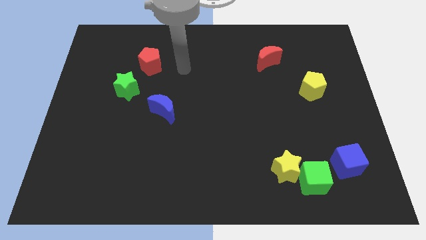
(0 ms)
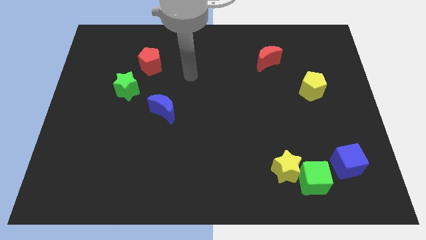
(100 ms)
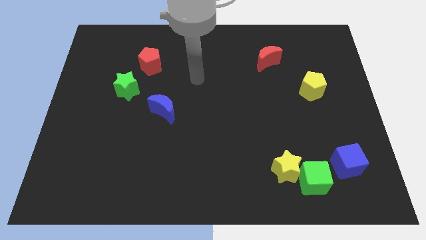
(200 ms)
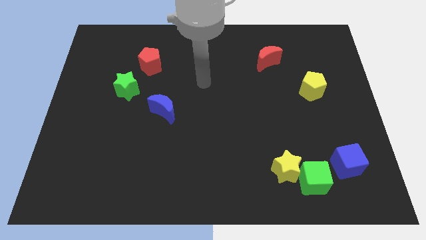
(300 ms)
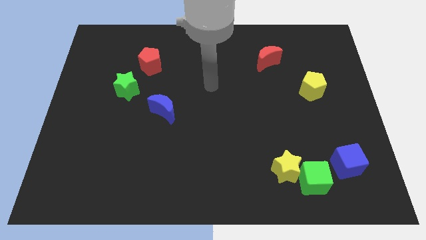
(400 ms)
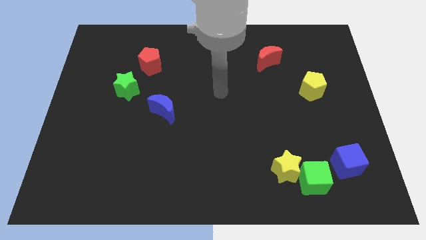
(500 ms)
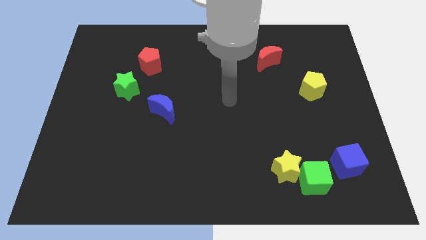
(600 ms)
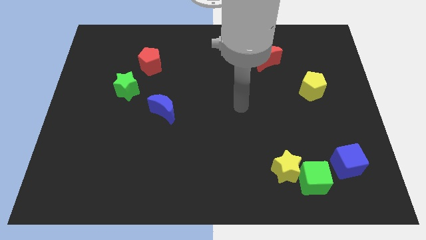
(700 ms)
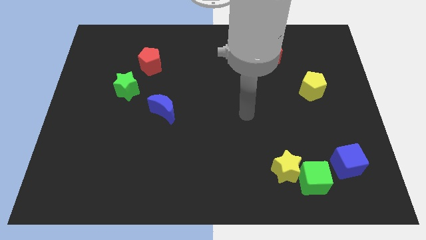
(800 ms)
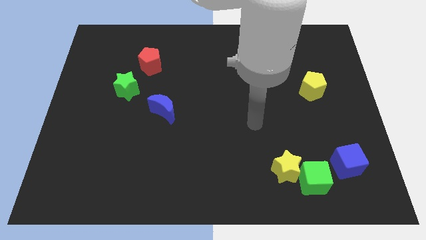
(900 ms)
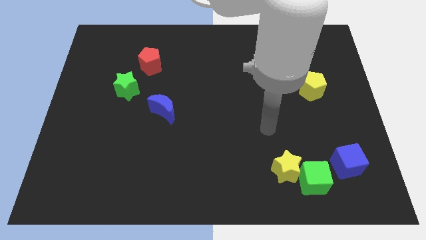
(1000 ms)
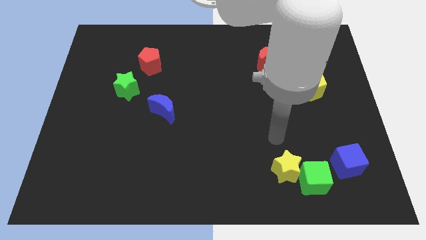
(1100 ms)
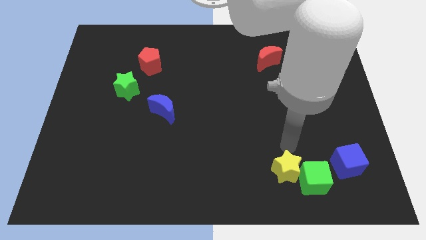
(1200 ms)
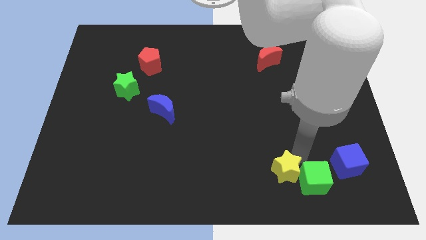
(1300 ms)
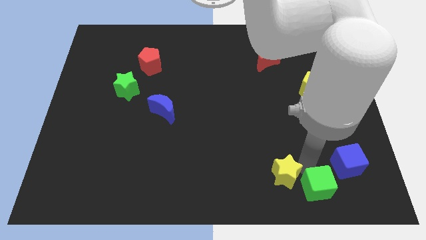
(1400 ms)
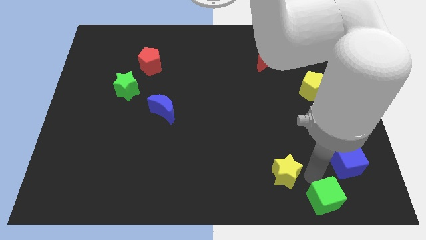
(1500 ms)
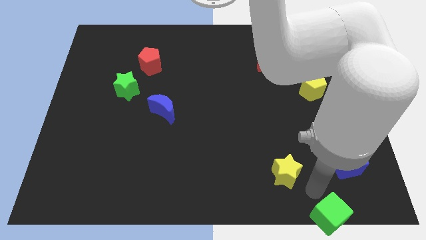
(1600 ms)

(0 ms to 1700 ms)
pull the yellow star apart from the green cube

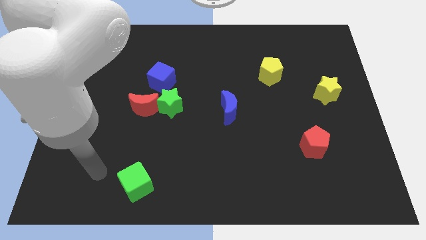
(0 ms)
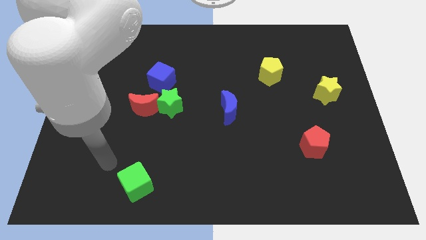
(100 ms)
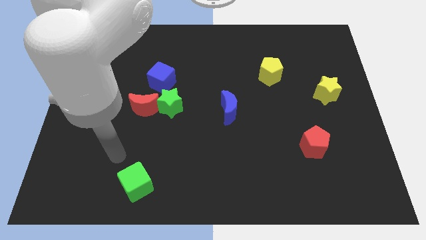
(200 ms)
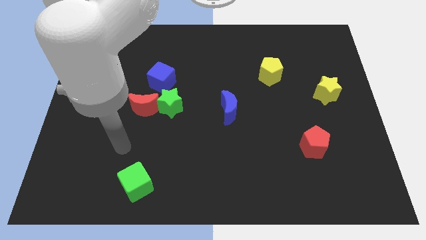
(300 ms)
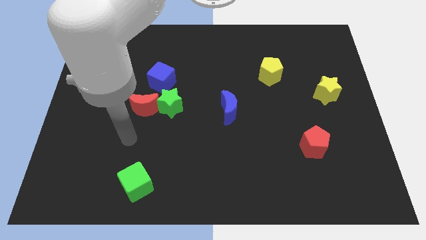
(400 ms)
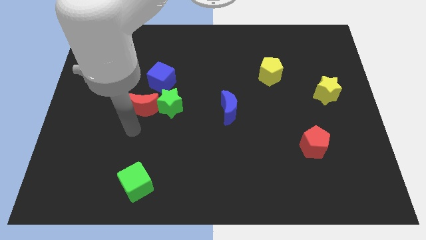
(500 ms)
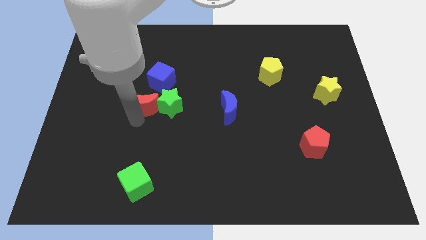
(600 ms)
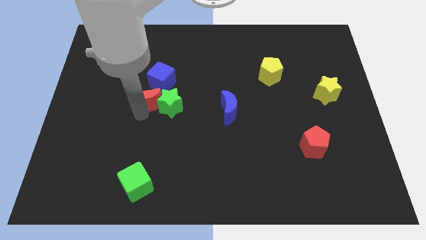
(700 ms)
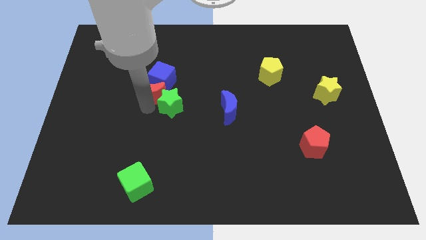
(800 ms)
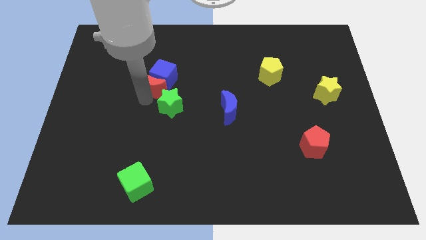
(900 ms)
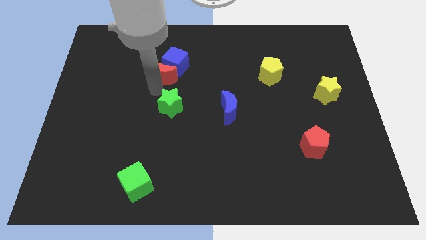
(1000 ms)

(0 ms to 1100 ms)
pull the green star apart from the red moon and blue cube

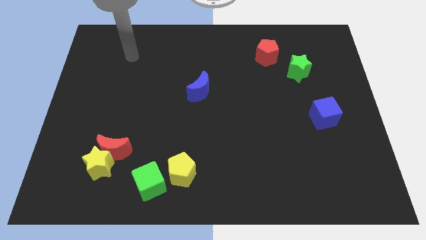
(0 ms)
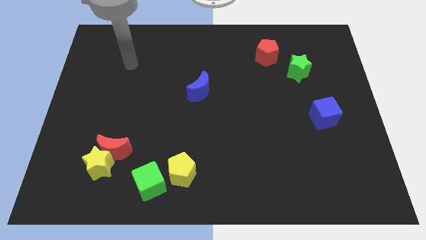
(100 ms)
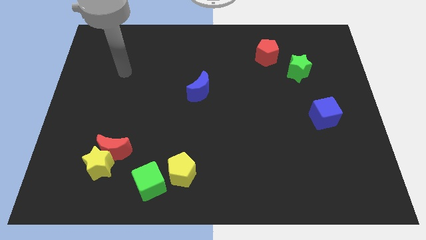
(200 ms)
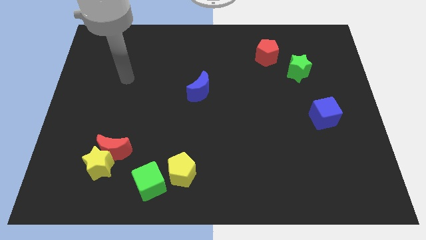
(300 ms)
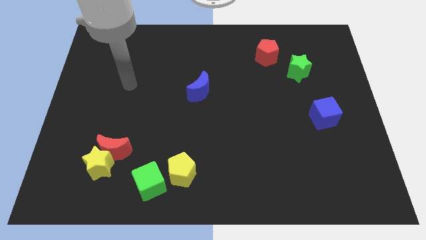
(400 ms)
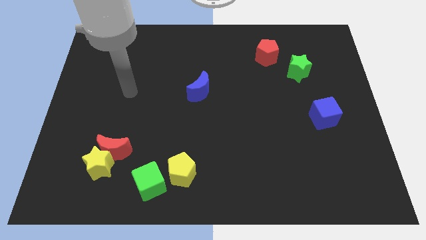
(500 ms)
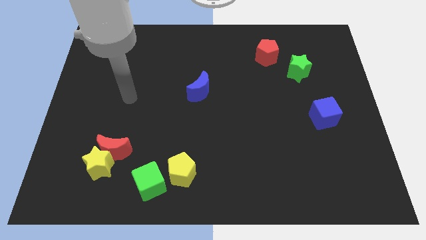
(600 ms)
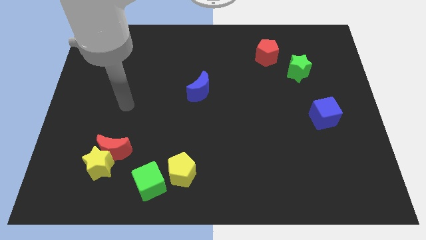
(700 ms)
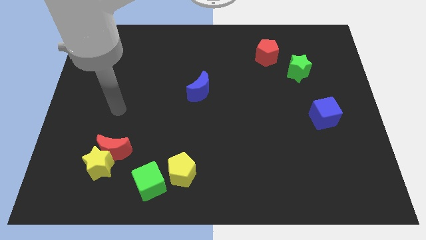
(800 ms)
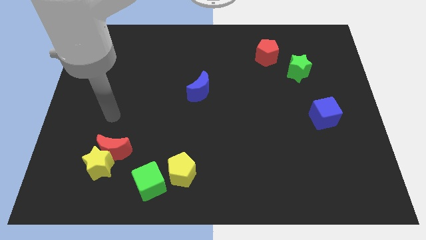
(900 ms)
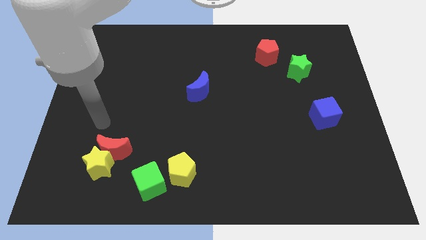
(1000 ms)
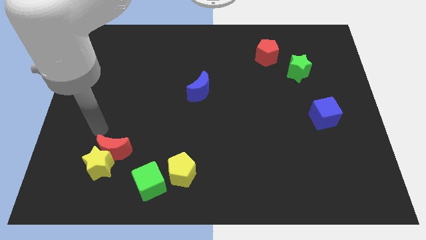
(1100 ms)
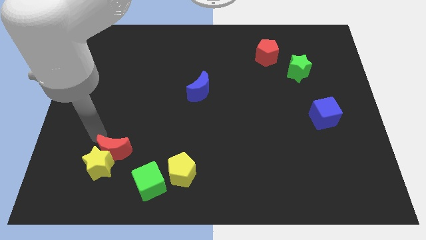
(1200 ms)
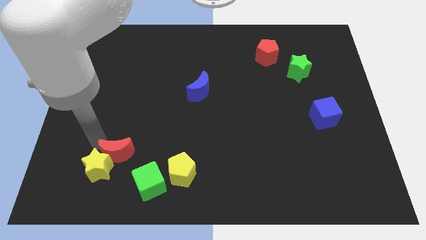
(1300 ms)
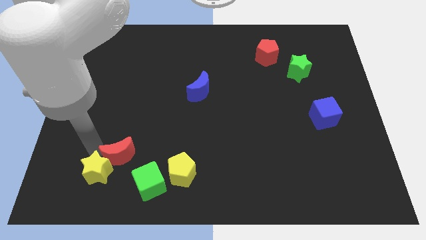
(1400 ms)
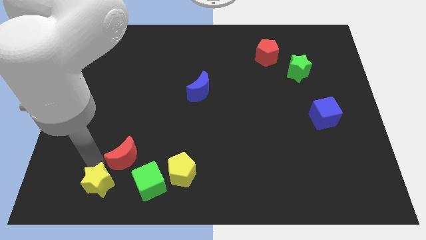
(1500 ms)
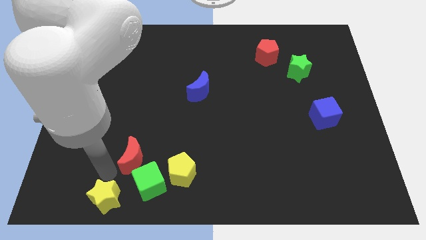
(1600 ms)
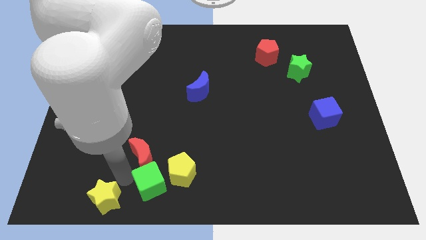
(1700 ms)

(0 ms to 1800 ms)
separate the red moon from the yellow star

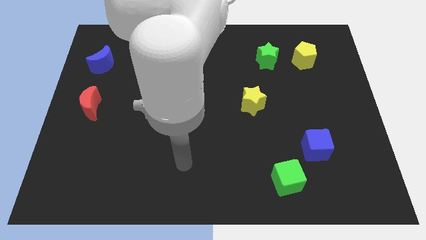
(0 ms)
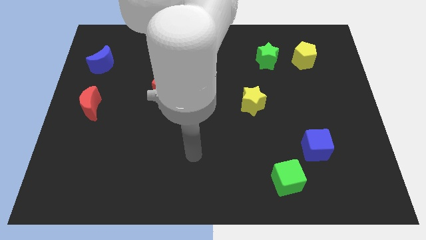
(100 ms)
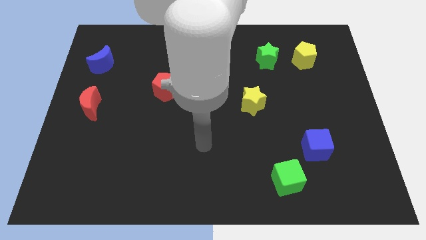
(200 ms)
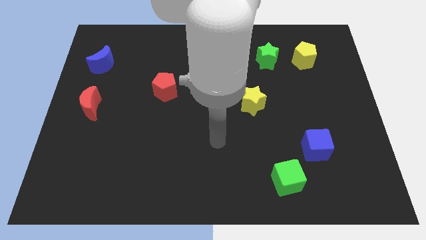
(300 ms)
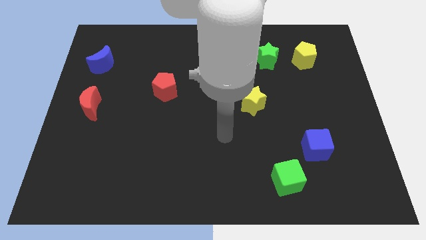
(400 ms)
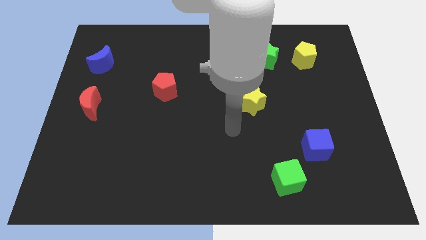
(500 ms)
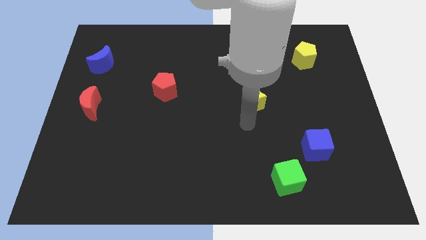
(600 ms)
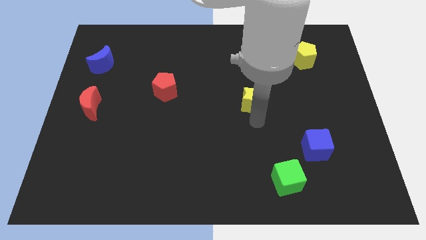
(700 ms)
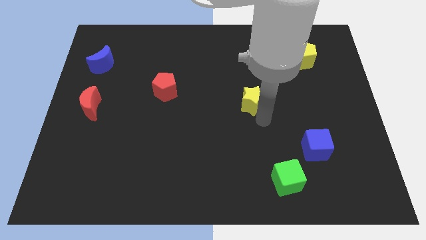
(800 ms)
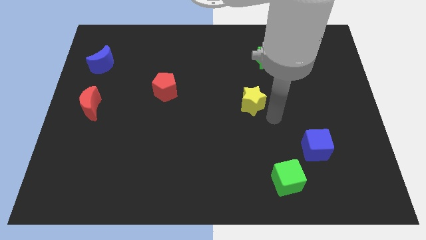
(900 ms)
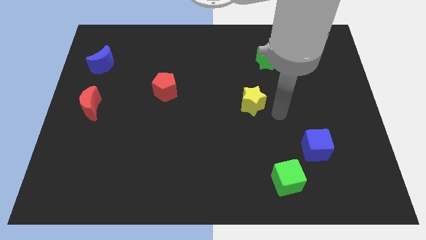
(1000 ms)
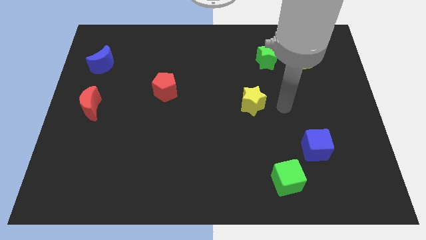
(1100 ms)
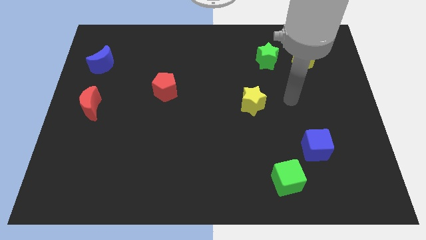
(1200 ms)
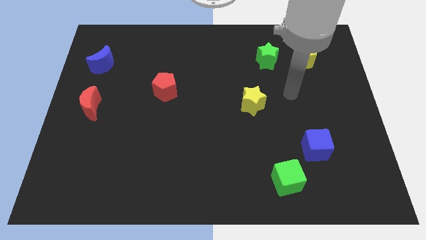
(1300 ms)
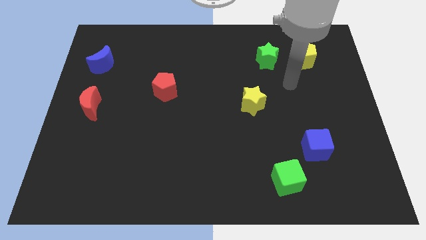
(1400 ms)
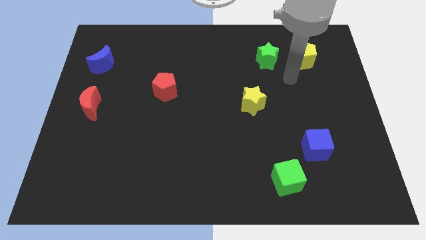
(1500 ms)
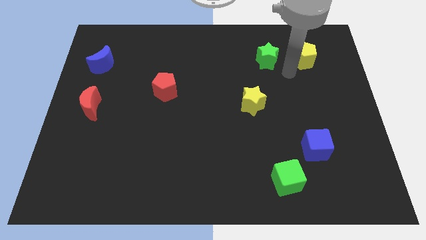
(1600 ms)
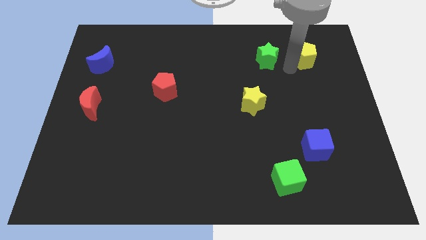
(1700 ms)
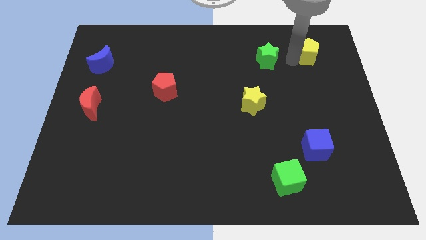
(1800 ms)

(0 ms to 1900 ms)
pull the green star apart from the yellow pentagon

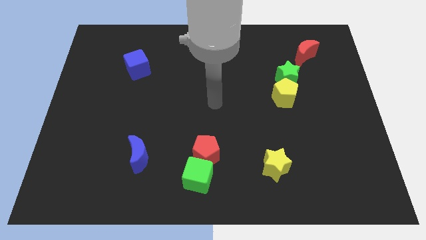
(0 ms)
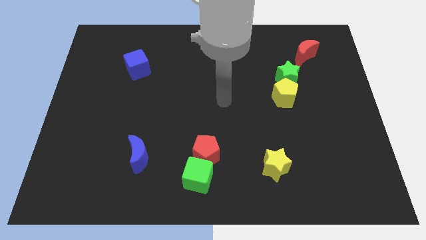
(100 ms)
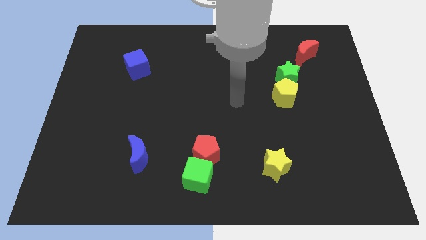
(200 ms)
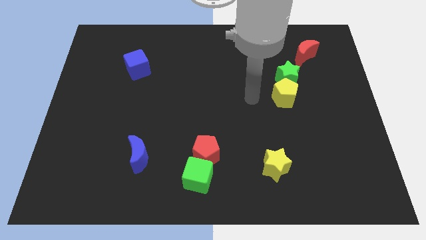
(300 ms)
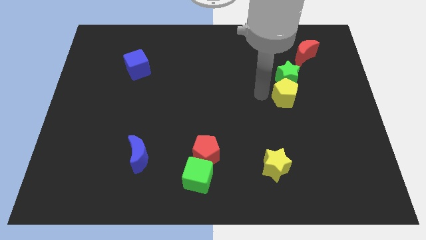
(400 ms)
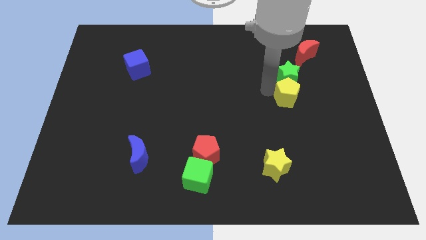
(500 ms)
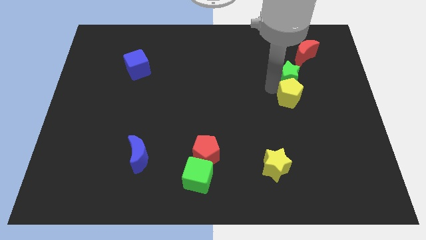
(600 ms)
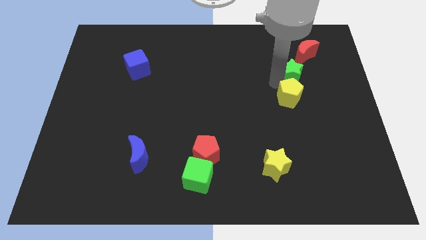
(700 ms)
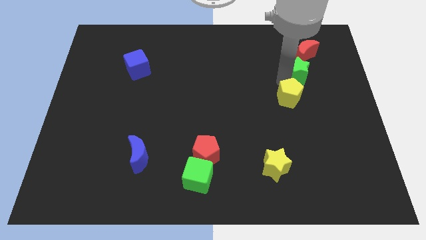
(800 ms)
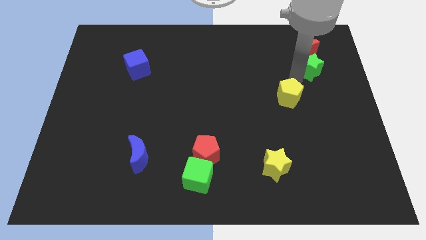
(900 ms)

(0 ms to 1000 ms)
pull the yellow pentagon apart from the green star

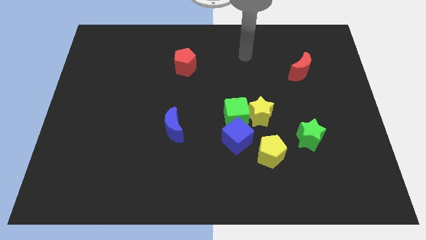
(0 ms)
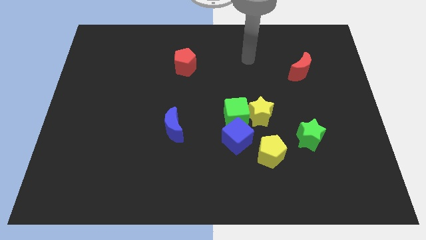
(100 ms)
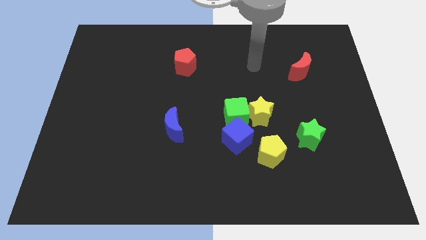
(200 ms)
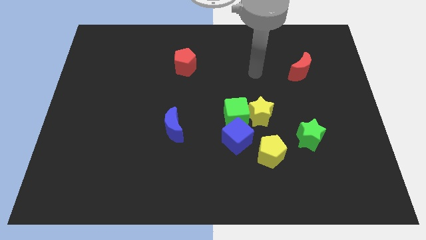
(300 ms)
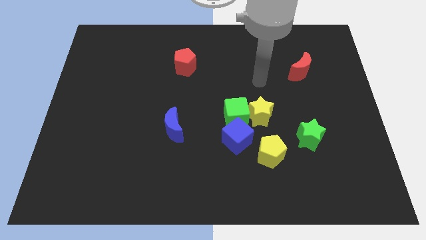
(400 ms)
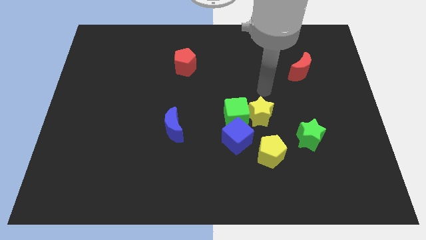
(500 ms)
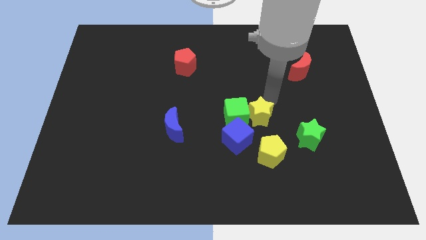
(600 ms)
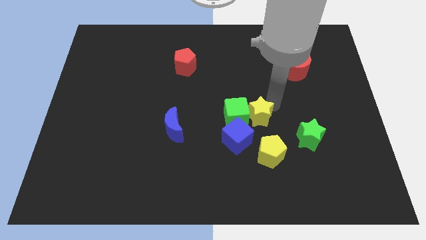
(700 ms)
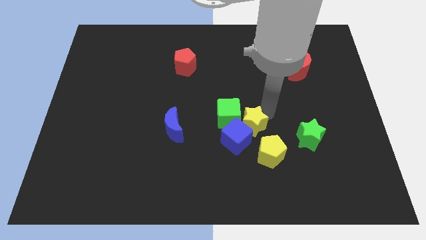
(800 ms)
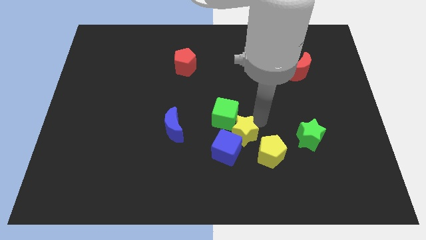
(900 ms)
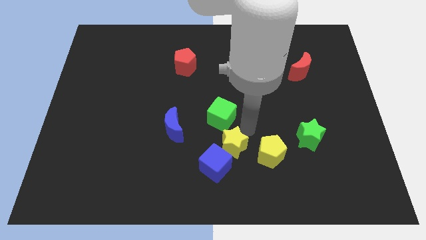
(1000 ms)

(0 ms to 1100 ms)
move the green cube away from the yellow star and blue cube

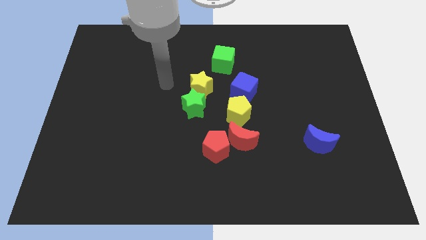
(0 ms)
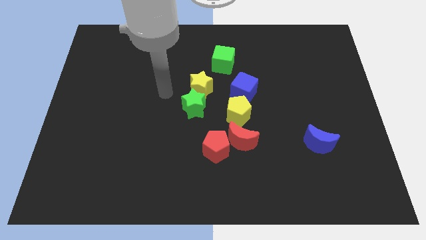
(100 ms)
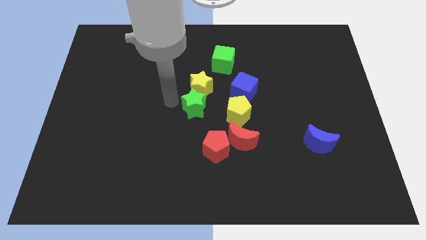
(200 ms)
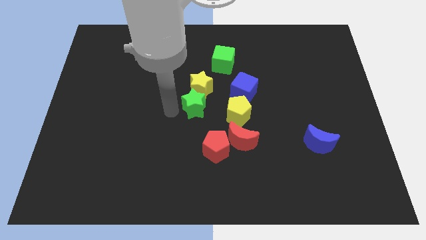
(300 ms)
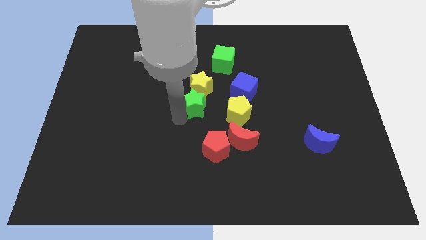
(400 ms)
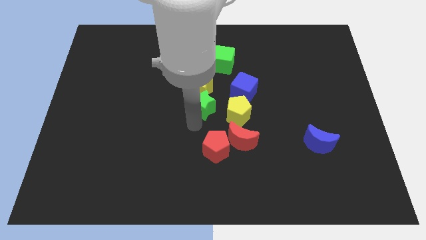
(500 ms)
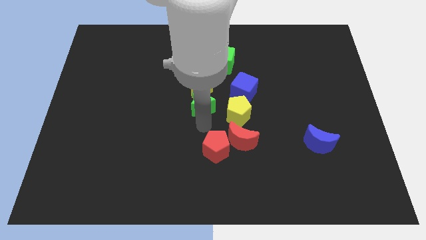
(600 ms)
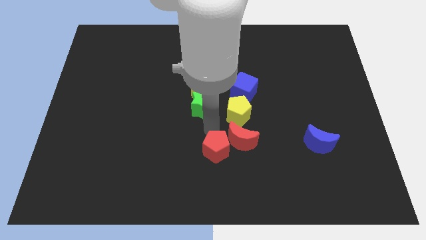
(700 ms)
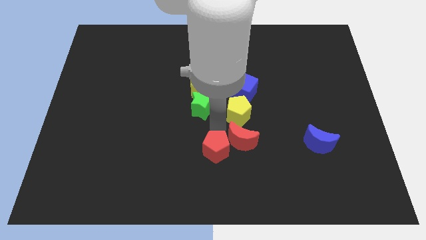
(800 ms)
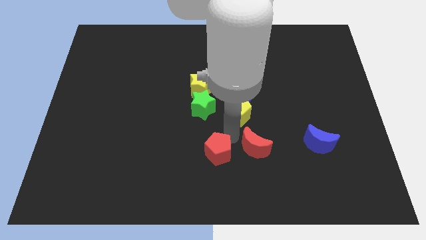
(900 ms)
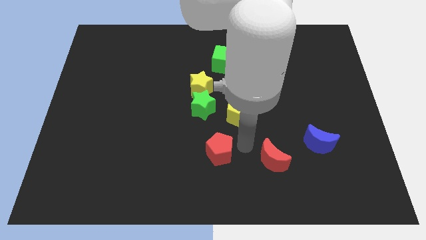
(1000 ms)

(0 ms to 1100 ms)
move the red pentagon away from the red moon
